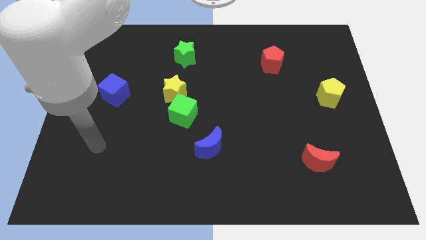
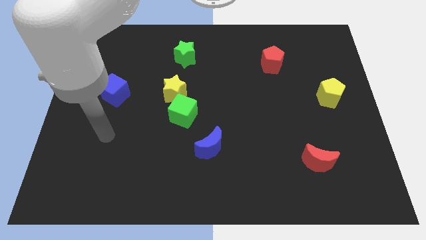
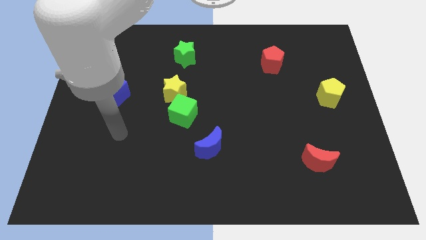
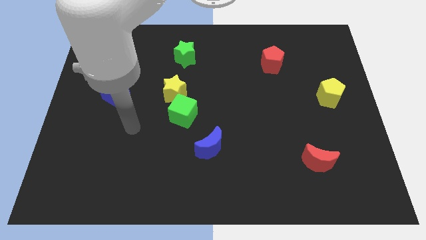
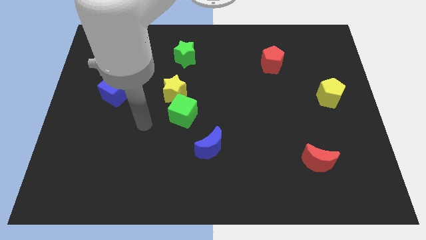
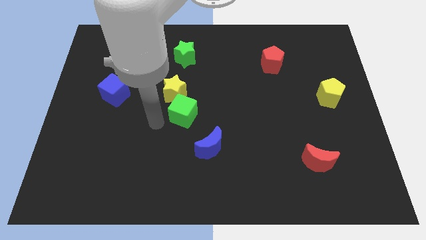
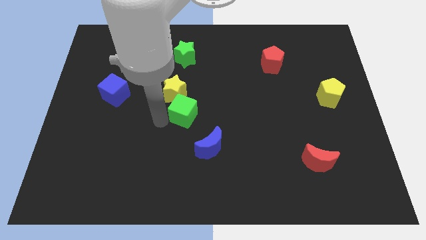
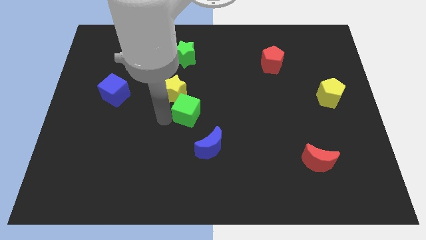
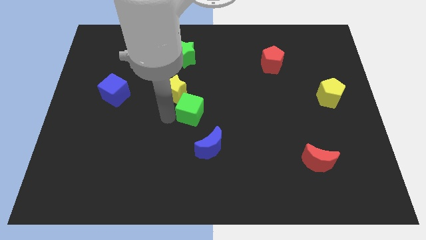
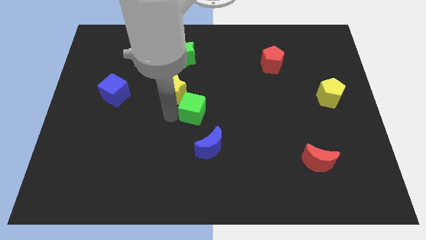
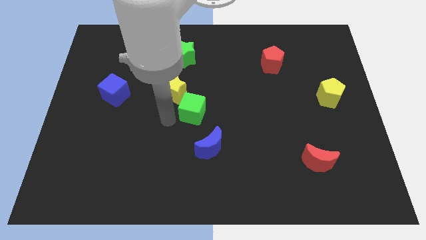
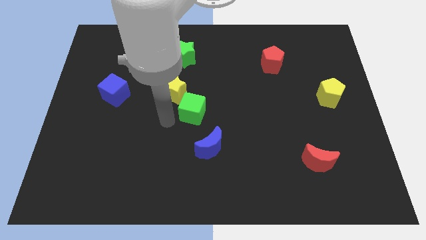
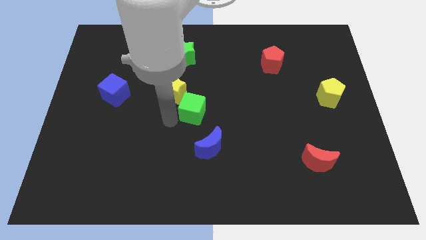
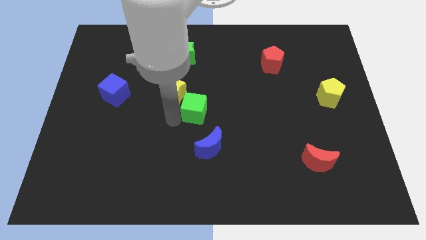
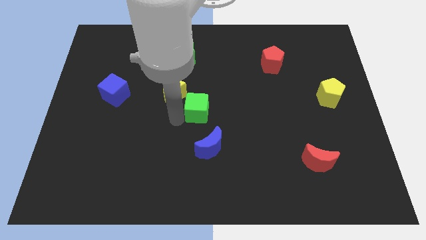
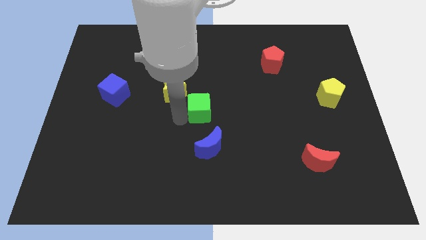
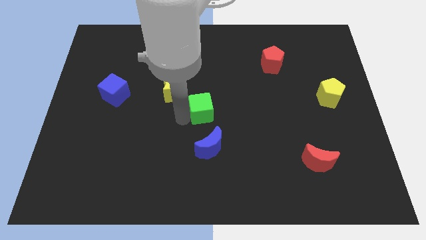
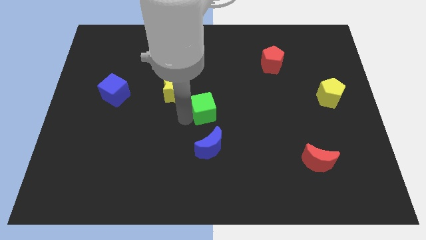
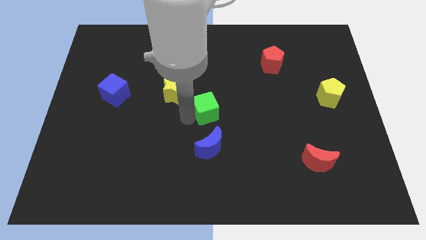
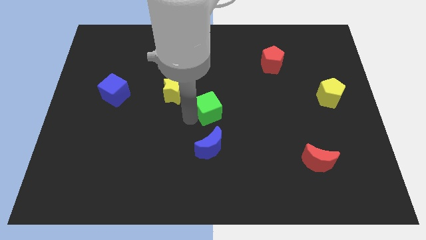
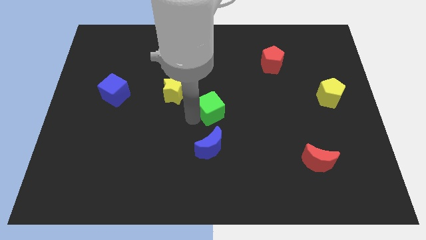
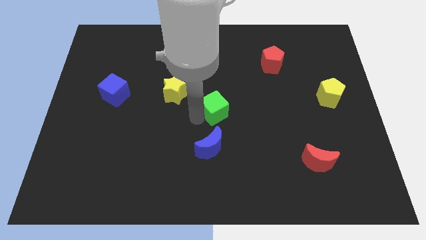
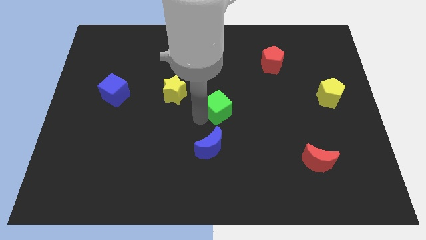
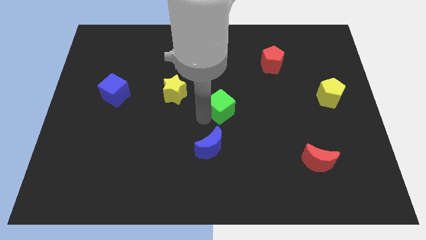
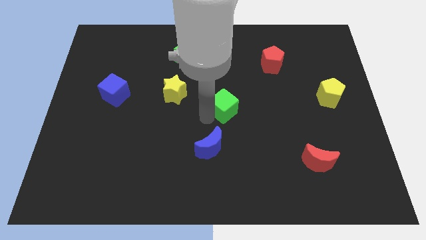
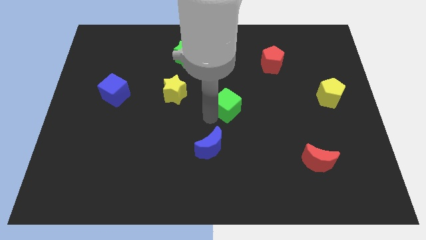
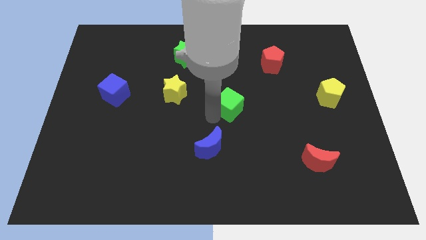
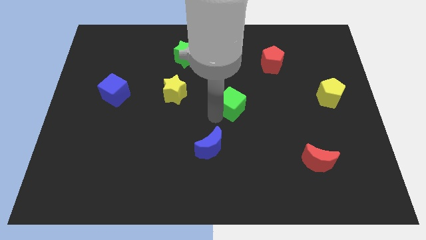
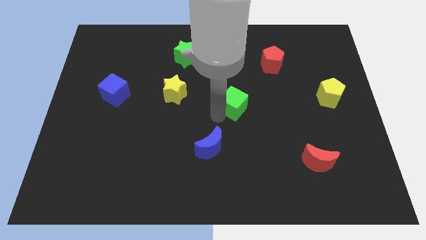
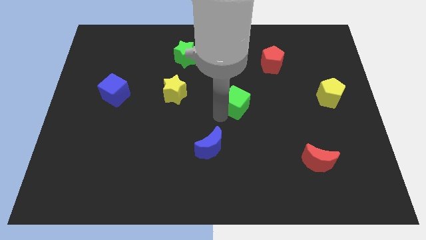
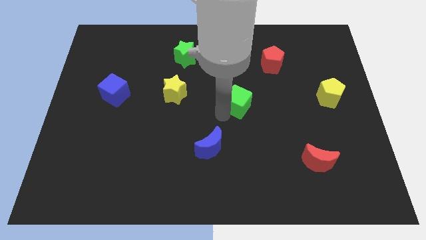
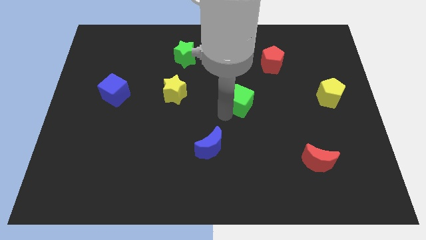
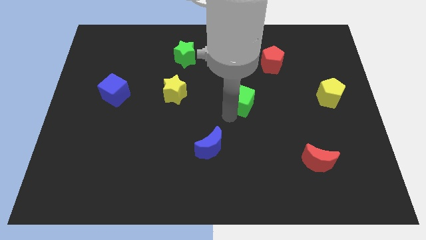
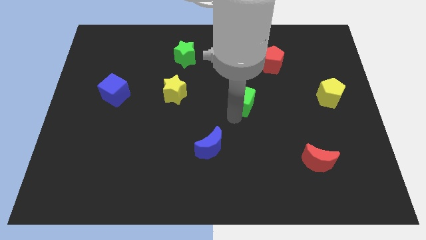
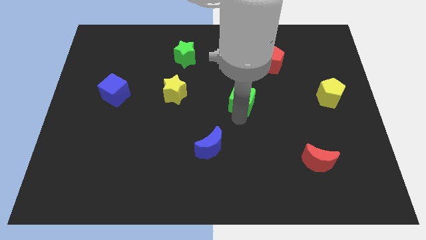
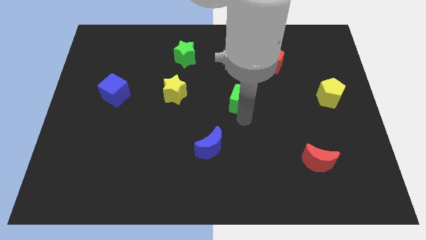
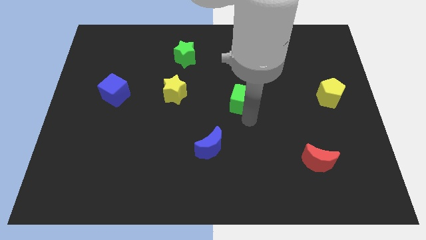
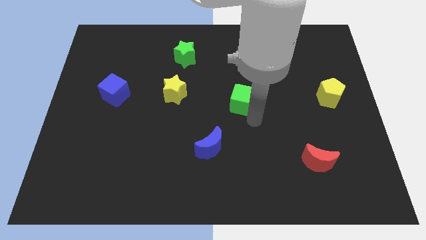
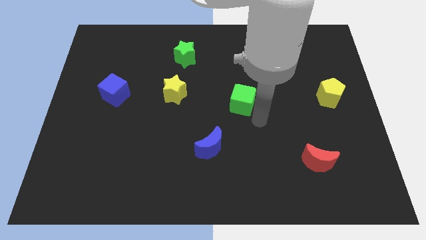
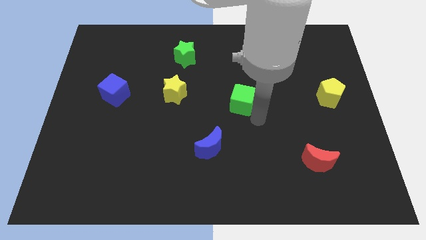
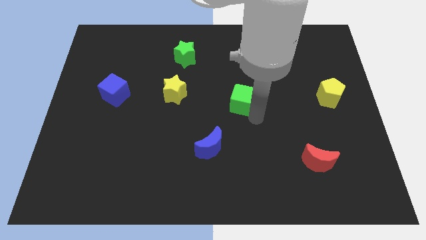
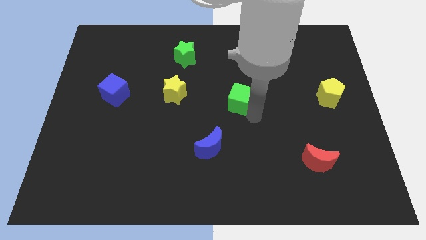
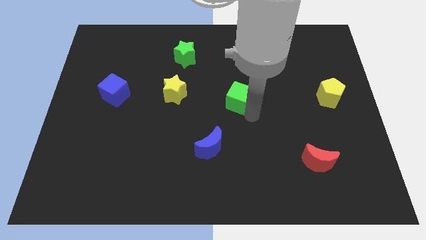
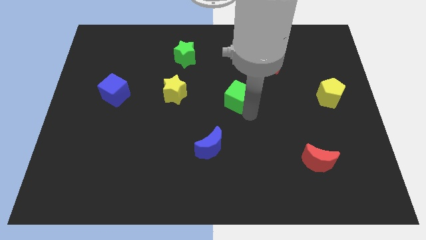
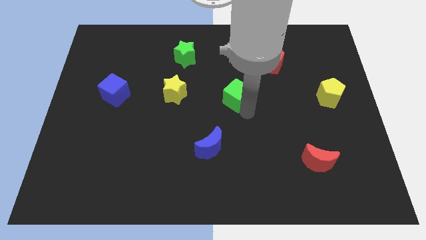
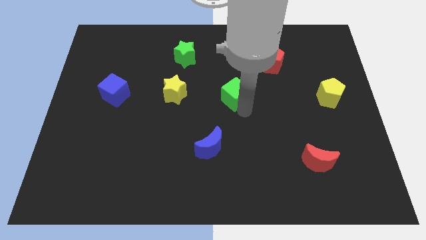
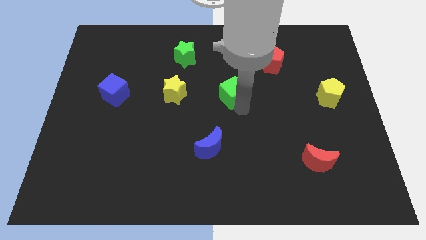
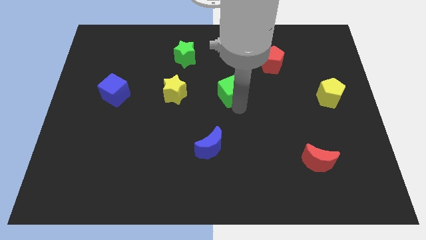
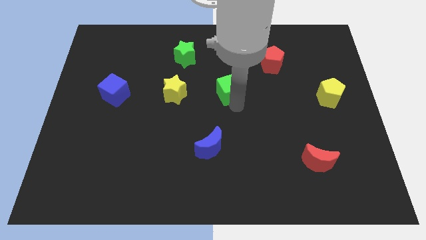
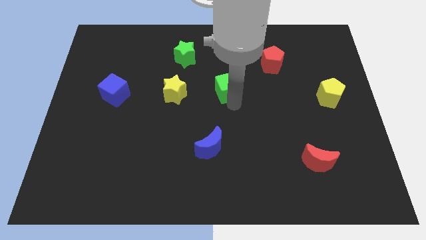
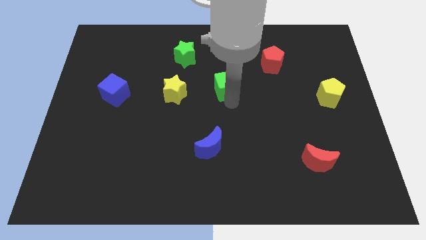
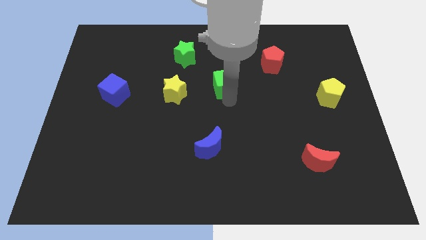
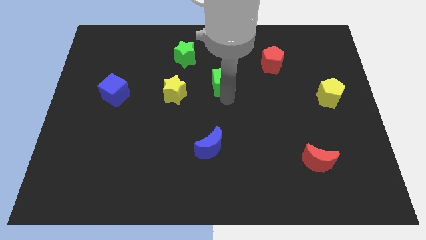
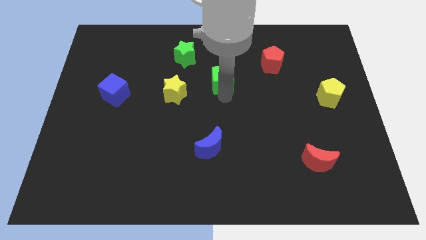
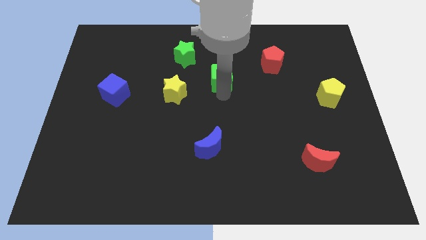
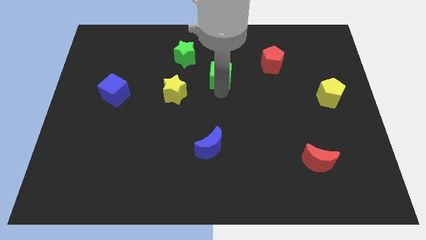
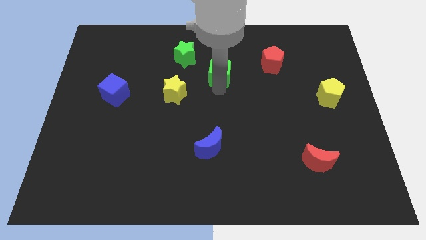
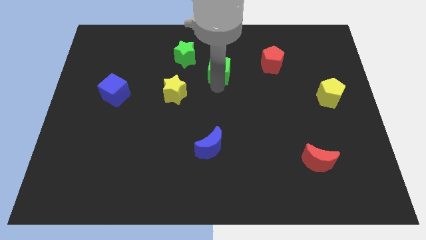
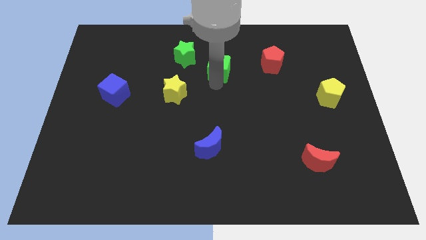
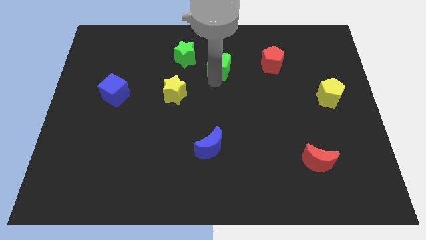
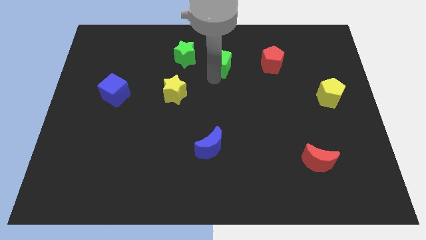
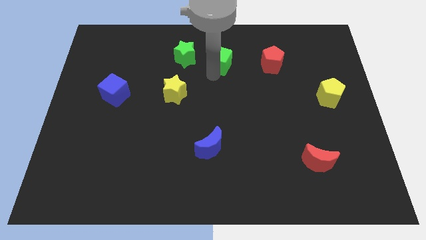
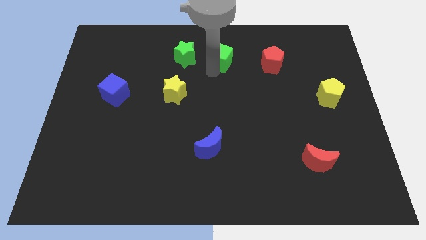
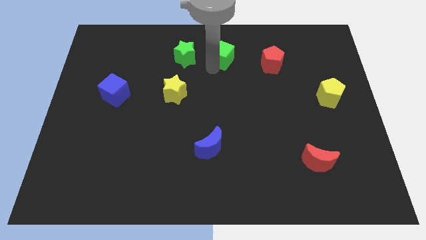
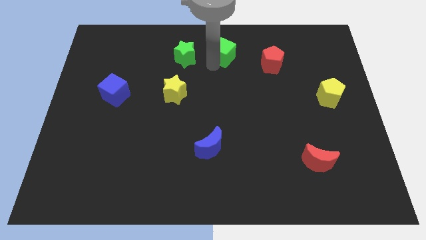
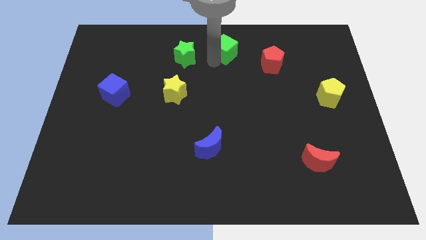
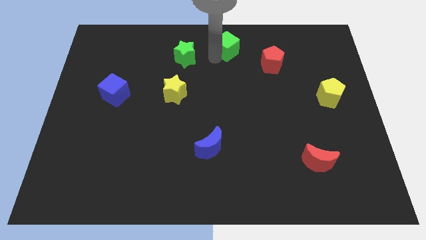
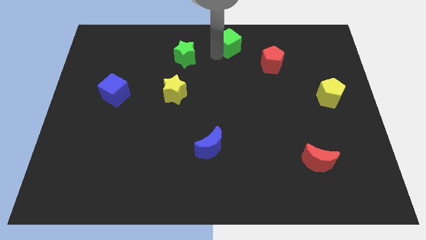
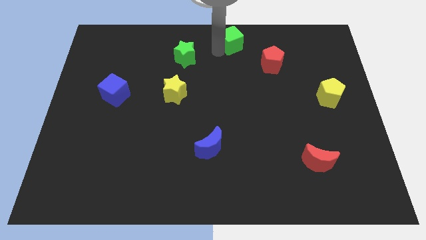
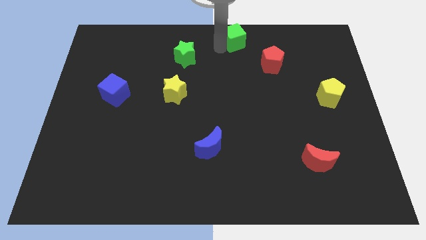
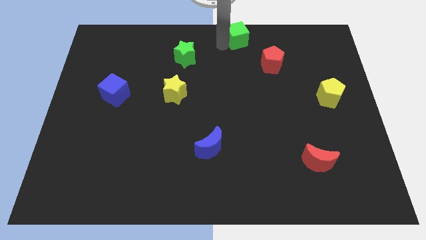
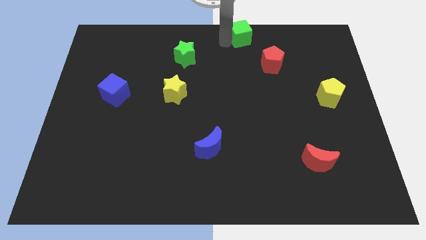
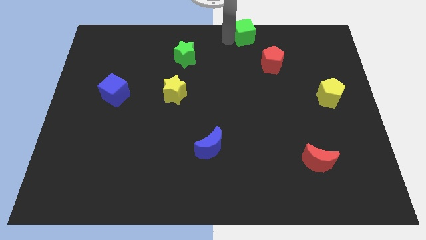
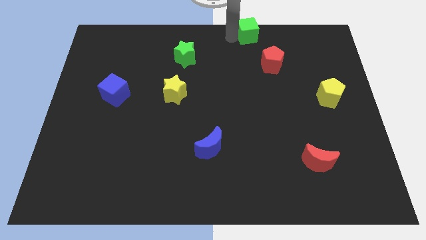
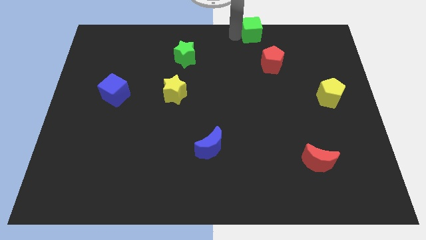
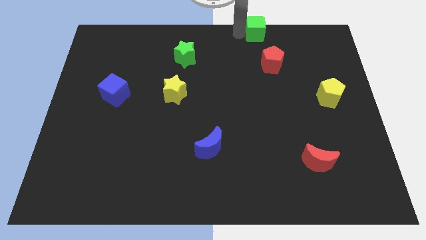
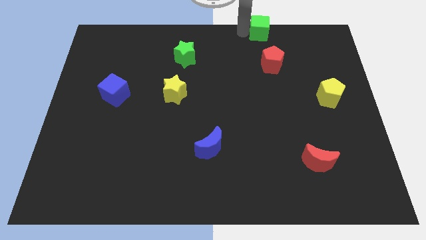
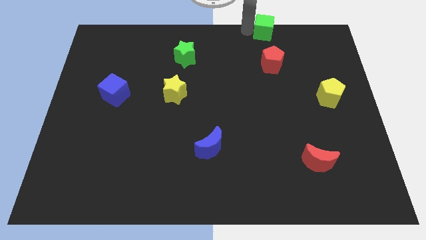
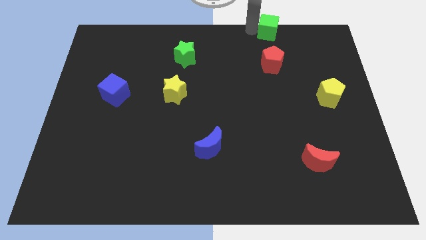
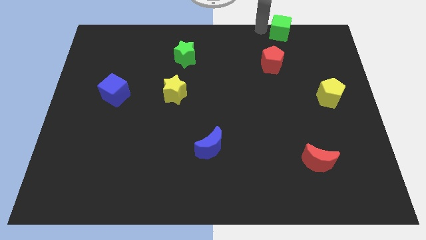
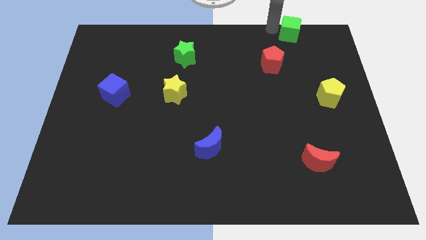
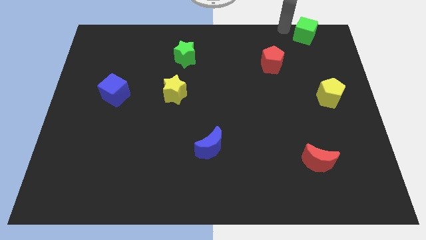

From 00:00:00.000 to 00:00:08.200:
slide the green cube to the top right of the board
